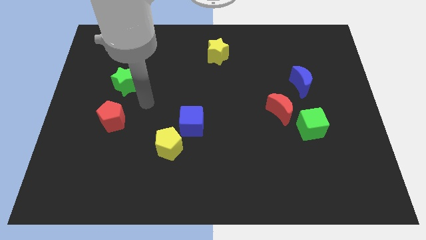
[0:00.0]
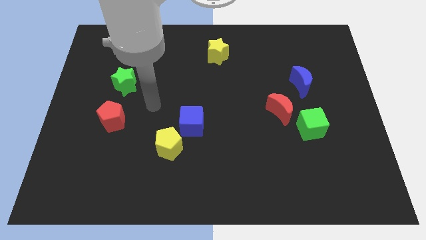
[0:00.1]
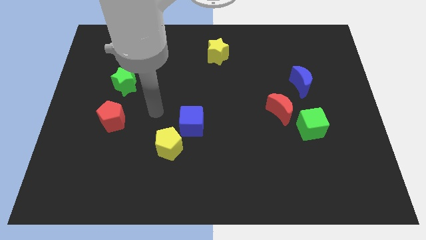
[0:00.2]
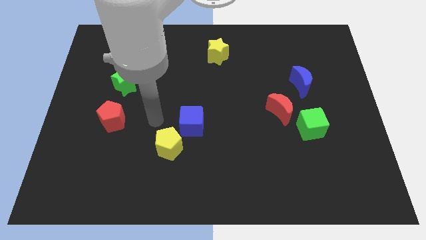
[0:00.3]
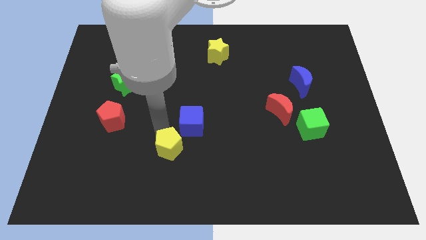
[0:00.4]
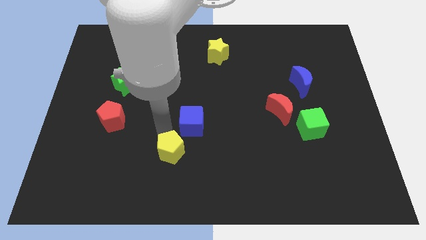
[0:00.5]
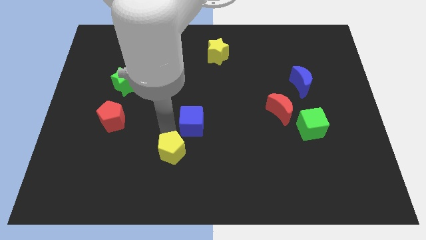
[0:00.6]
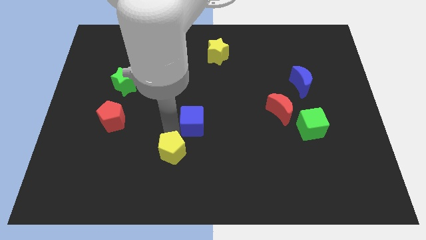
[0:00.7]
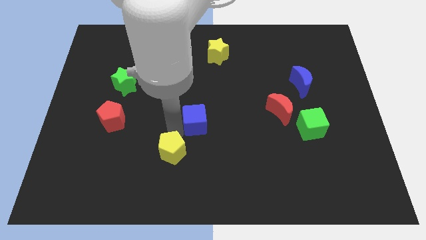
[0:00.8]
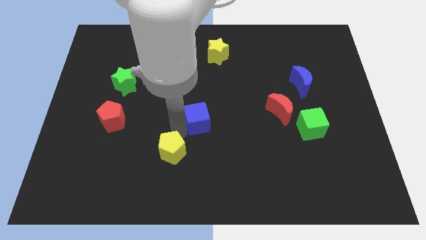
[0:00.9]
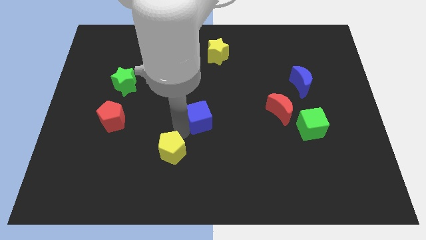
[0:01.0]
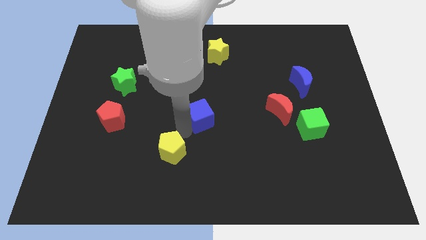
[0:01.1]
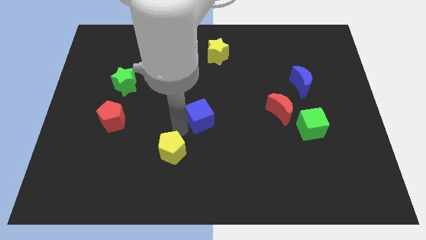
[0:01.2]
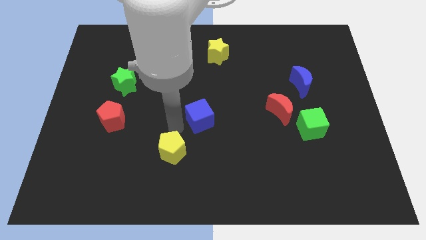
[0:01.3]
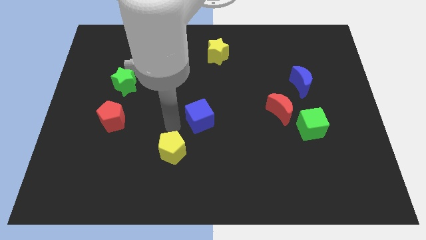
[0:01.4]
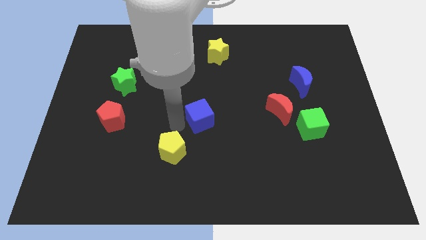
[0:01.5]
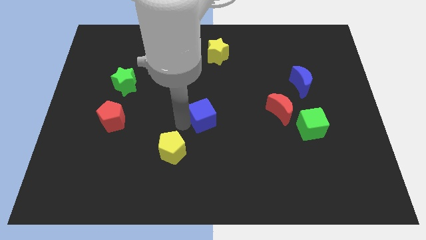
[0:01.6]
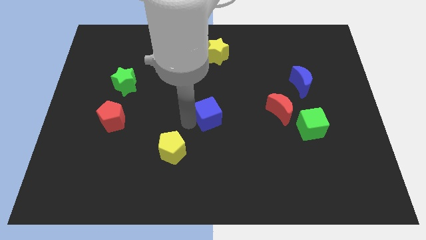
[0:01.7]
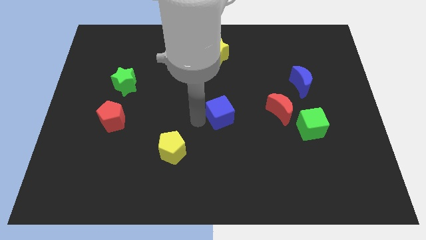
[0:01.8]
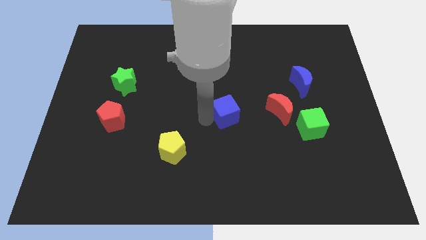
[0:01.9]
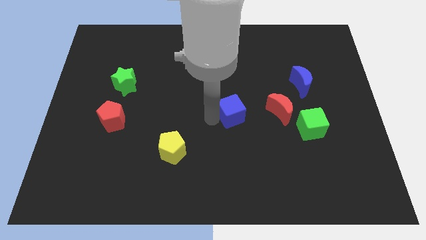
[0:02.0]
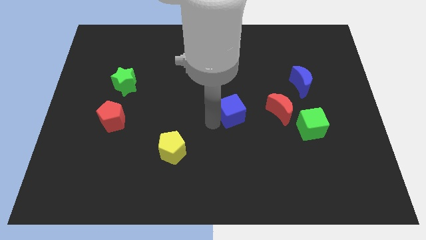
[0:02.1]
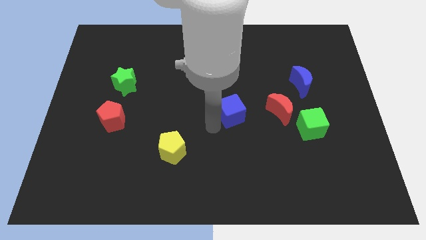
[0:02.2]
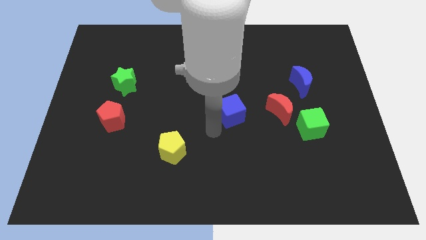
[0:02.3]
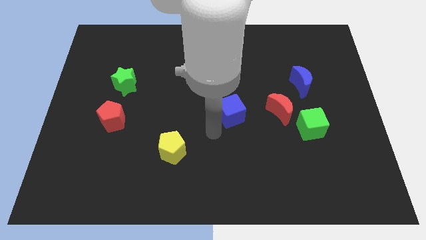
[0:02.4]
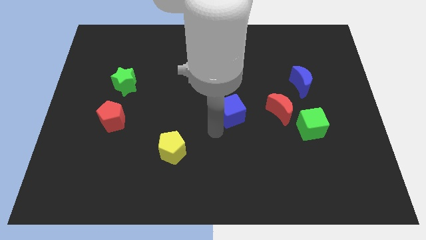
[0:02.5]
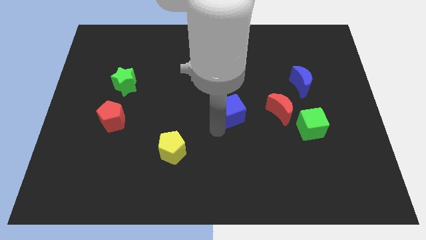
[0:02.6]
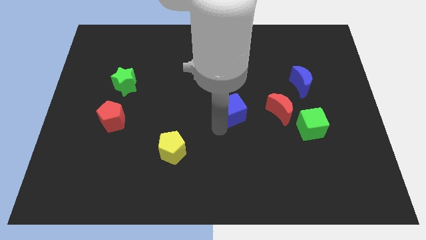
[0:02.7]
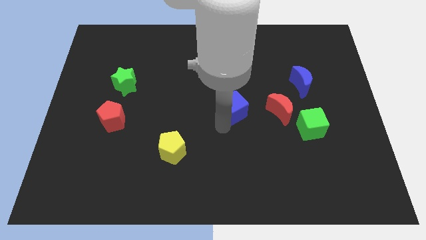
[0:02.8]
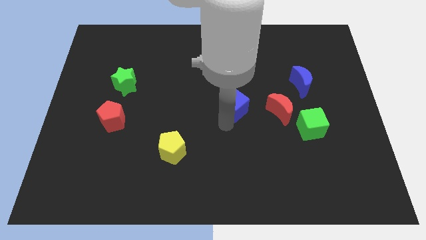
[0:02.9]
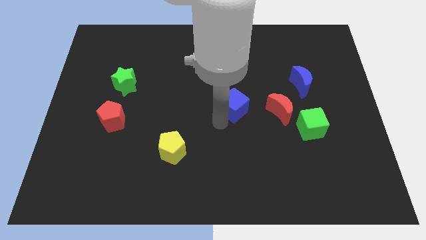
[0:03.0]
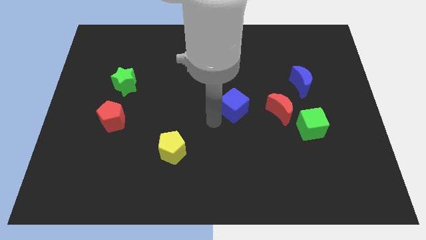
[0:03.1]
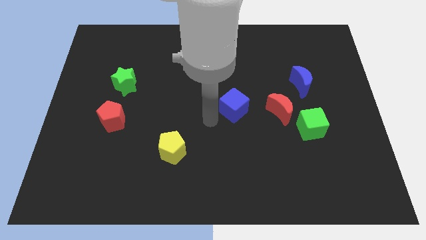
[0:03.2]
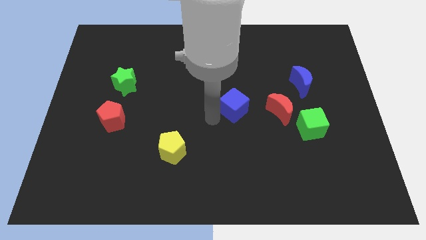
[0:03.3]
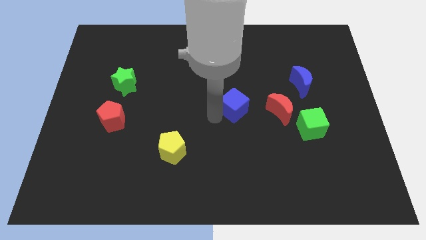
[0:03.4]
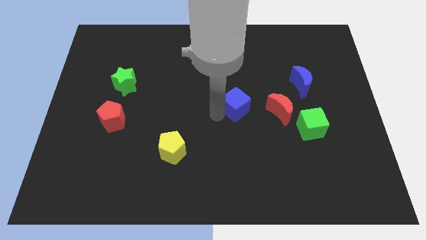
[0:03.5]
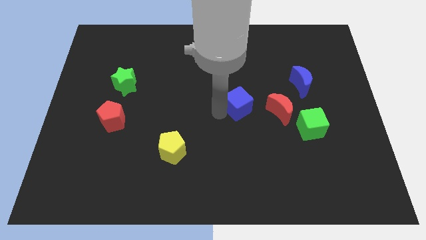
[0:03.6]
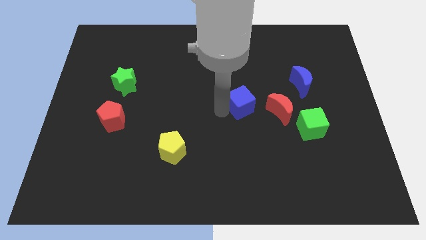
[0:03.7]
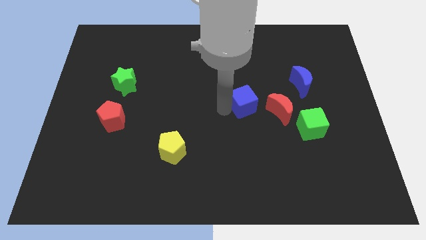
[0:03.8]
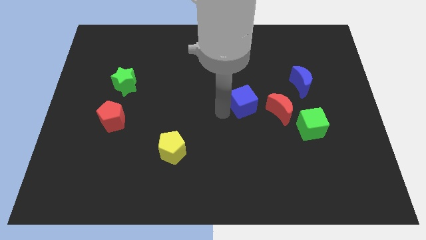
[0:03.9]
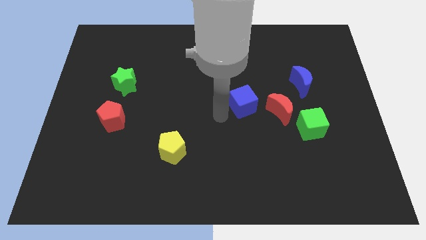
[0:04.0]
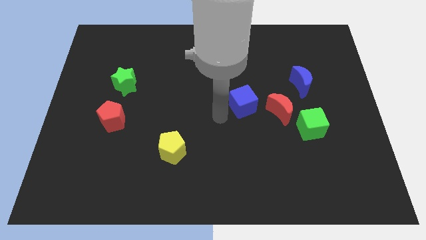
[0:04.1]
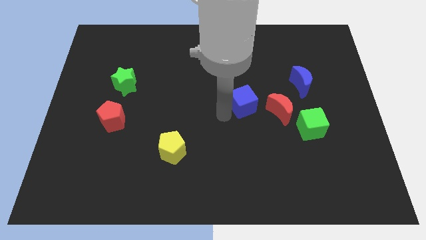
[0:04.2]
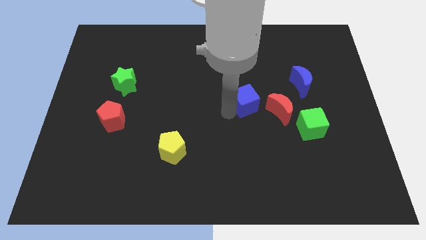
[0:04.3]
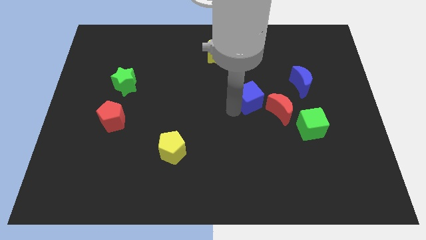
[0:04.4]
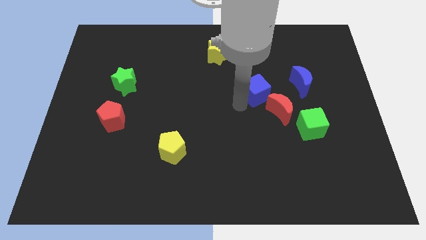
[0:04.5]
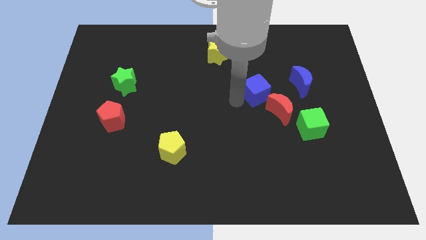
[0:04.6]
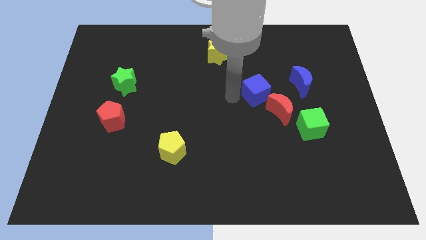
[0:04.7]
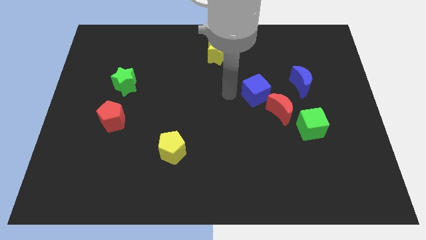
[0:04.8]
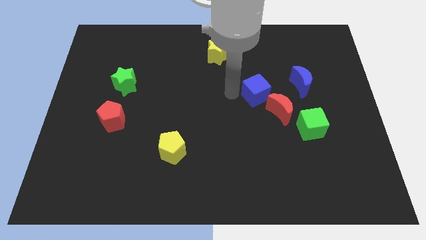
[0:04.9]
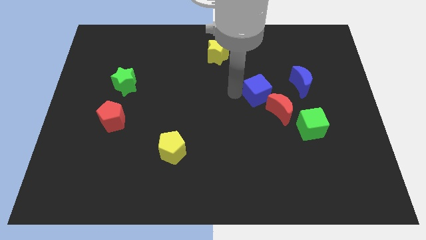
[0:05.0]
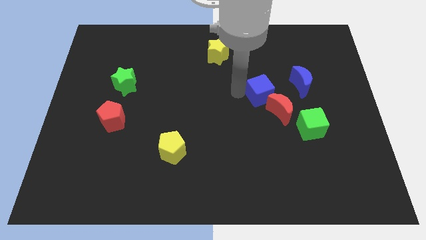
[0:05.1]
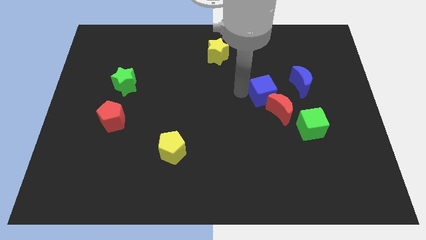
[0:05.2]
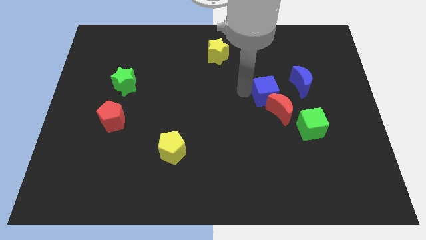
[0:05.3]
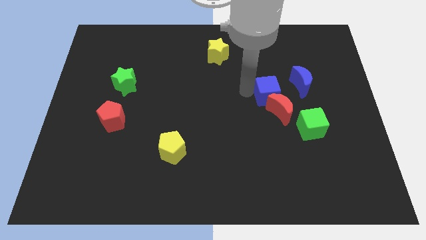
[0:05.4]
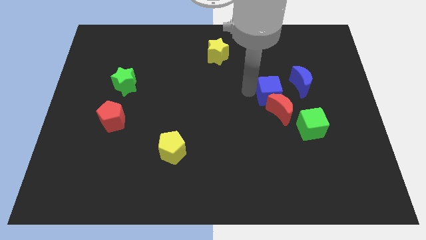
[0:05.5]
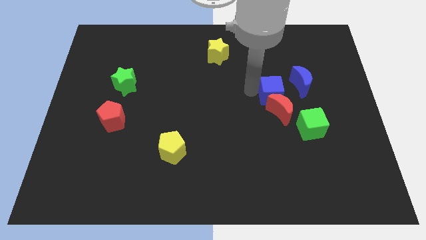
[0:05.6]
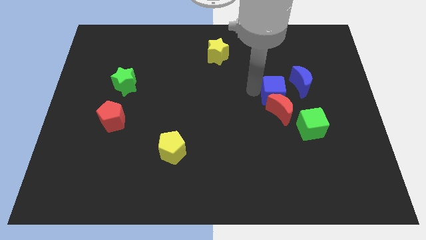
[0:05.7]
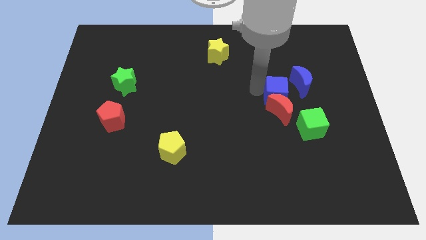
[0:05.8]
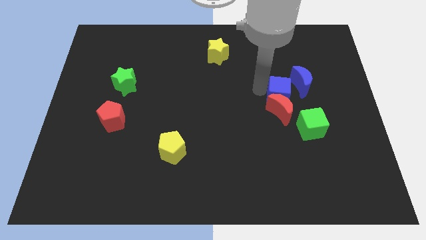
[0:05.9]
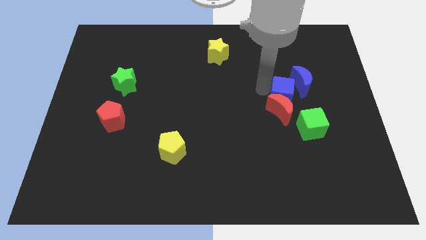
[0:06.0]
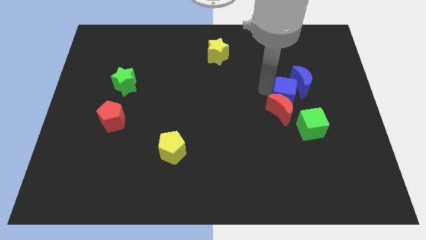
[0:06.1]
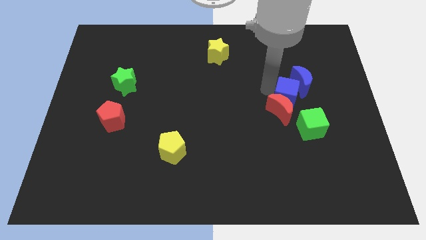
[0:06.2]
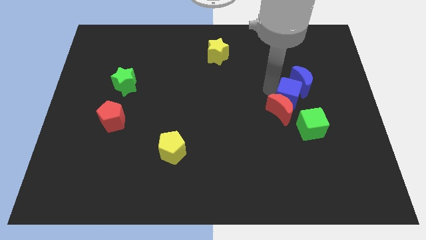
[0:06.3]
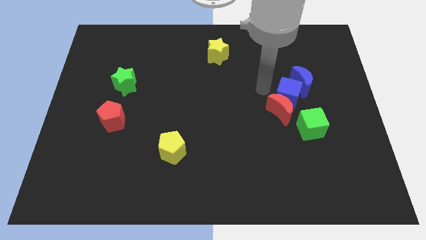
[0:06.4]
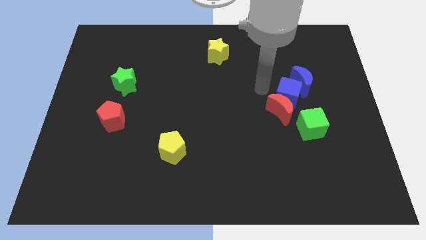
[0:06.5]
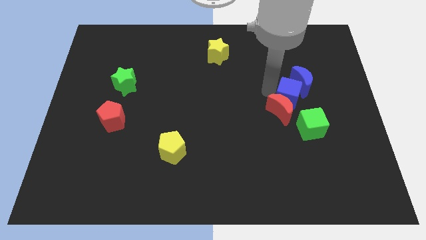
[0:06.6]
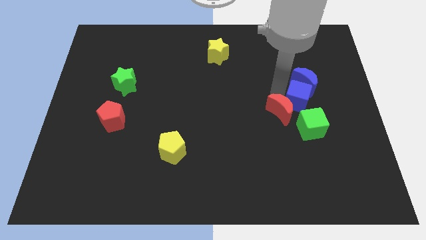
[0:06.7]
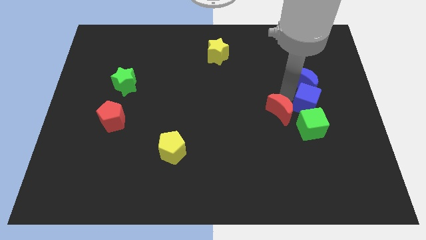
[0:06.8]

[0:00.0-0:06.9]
slide the blue cube to the top right side of the green cube
